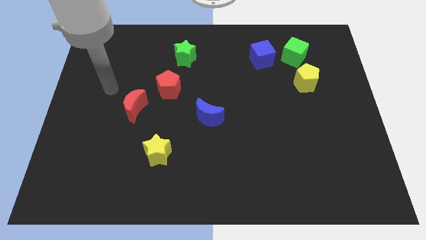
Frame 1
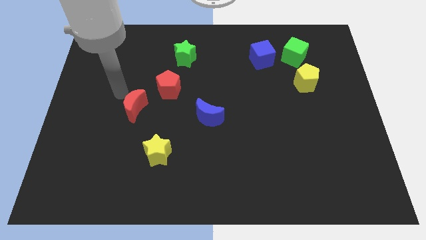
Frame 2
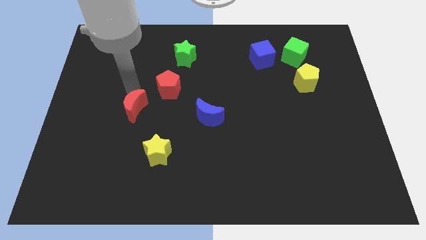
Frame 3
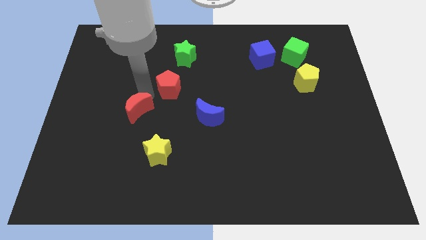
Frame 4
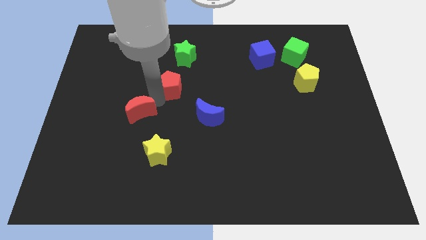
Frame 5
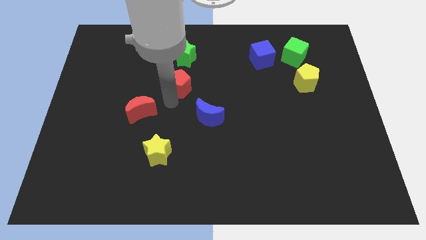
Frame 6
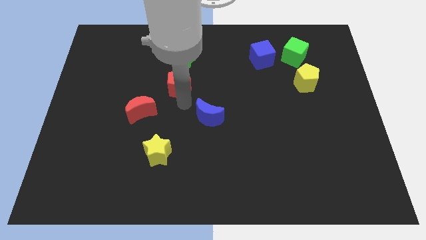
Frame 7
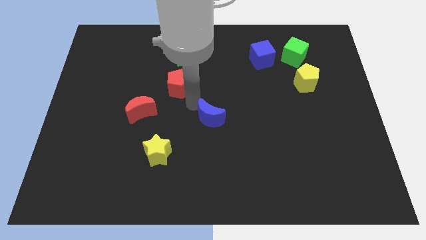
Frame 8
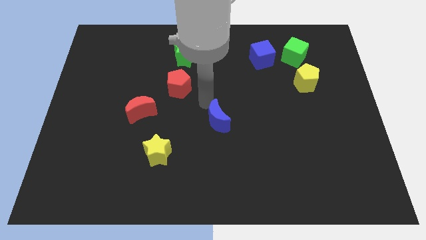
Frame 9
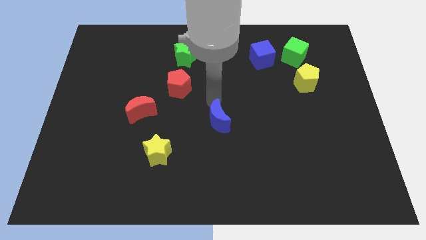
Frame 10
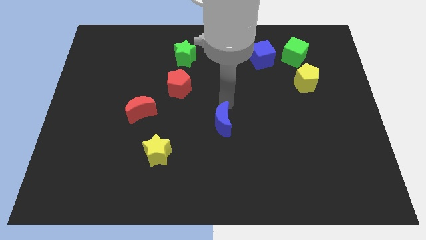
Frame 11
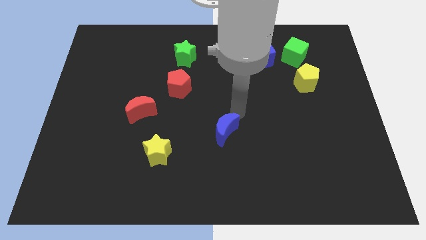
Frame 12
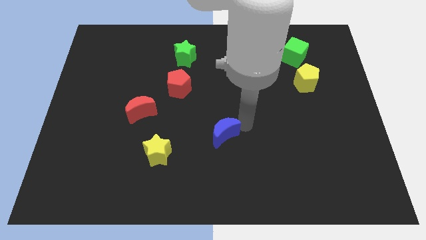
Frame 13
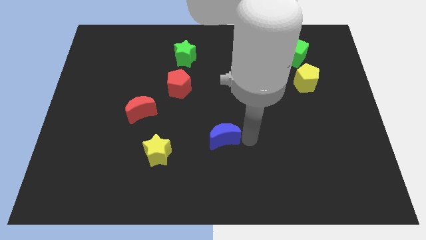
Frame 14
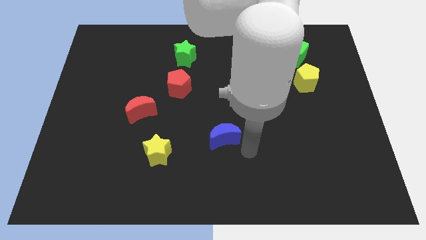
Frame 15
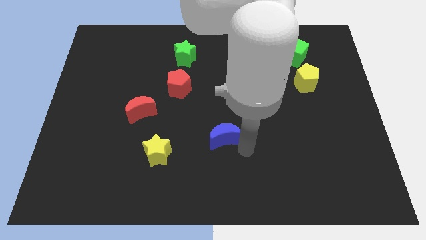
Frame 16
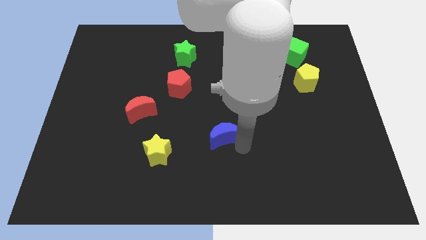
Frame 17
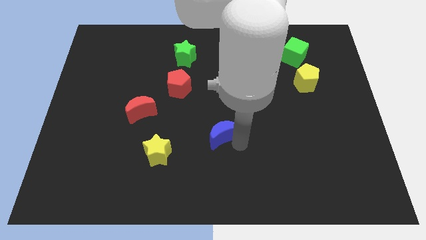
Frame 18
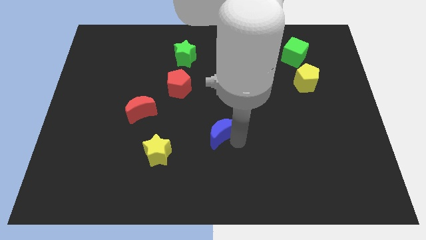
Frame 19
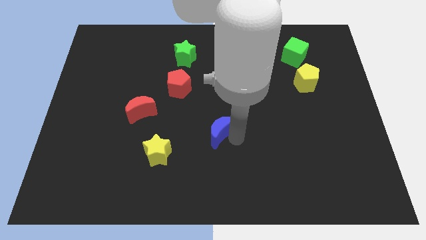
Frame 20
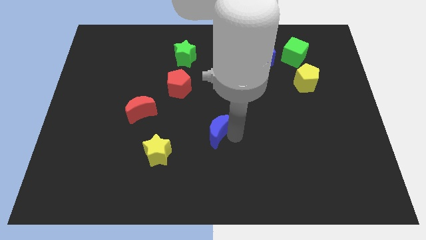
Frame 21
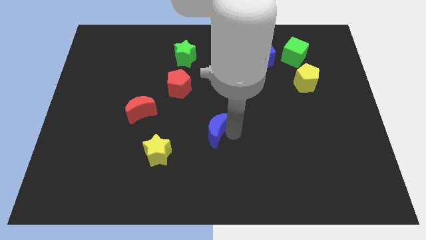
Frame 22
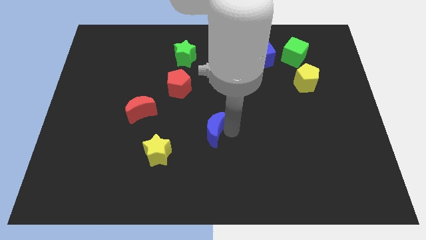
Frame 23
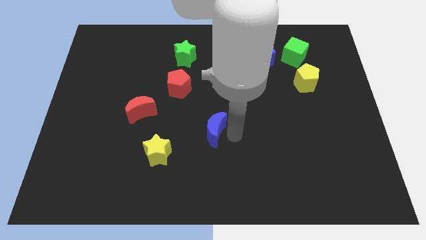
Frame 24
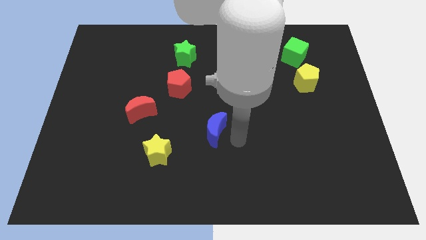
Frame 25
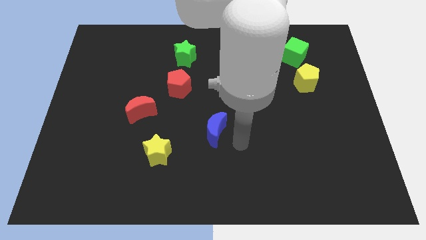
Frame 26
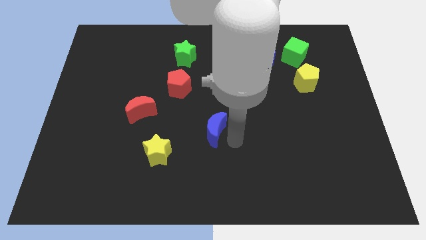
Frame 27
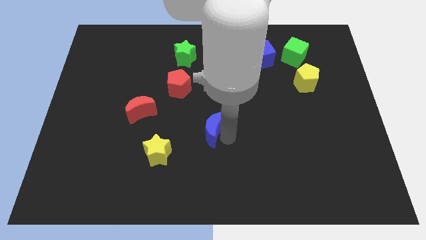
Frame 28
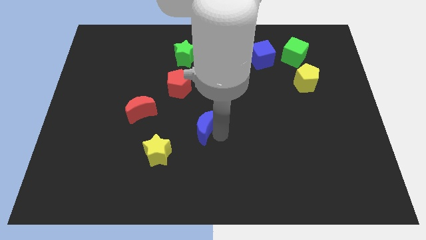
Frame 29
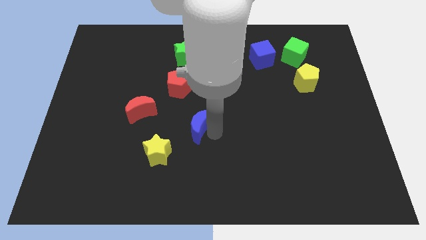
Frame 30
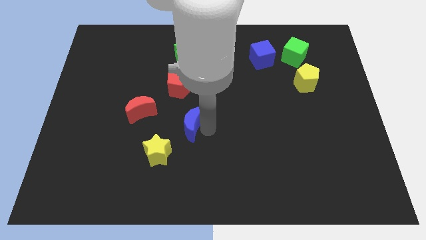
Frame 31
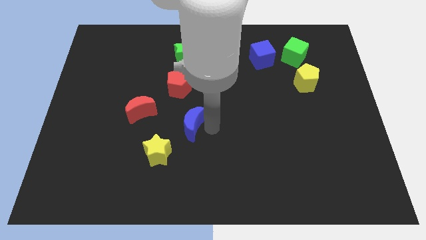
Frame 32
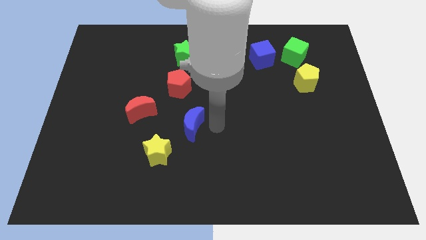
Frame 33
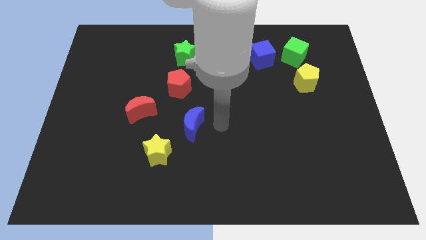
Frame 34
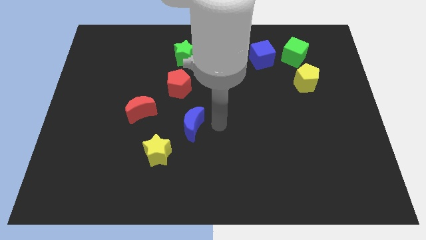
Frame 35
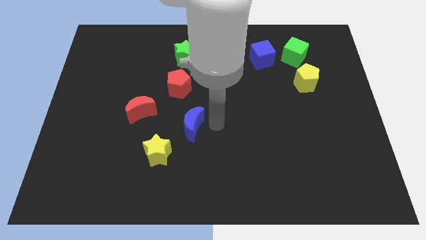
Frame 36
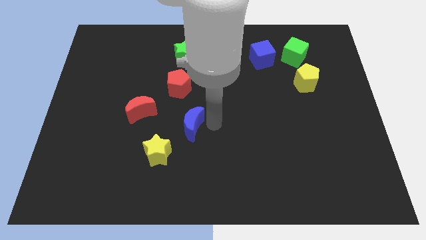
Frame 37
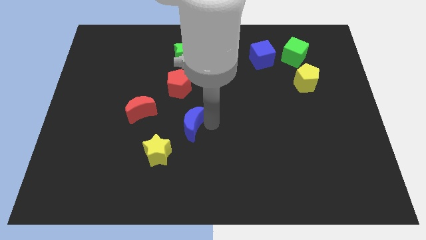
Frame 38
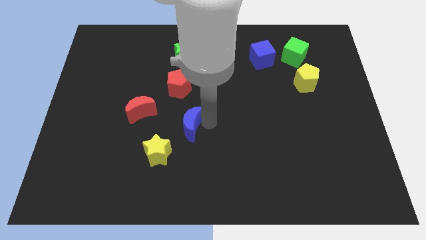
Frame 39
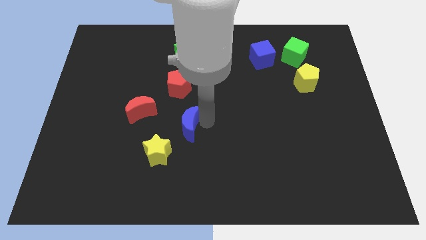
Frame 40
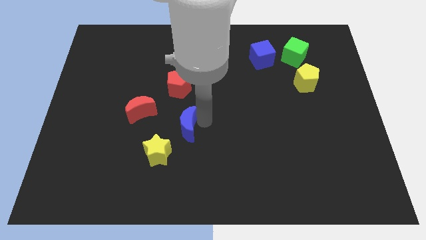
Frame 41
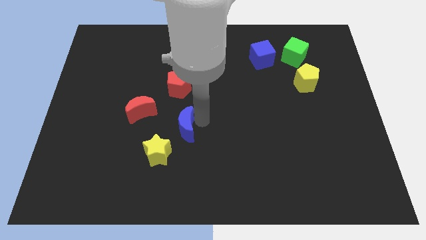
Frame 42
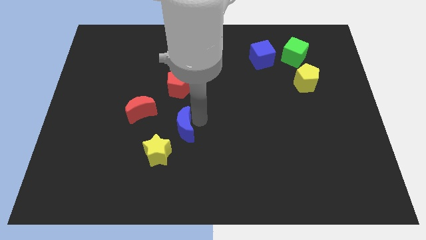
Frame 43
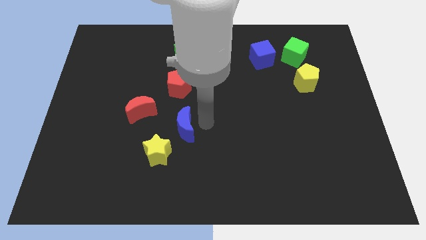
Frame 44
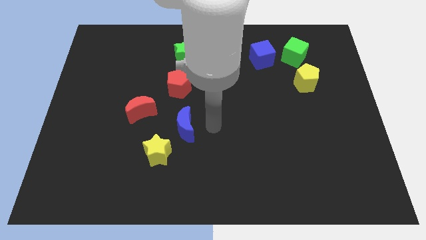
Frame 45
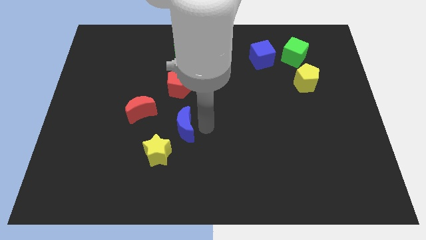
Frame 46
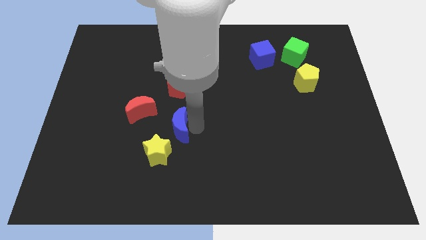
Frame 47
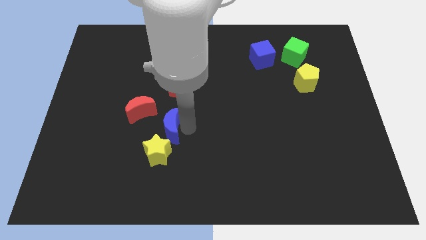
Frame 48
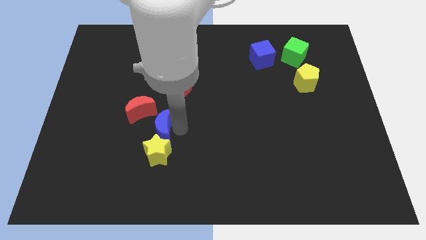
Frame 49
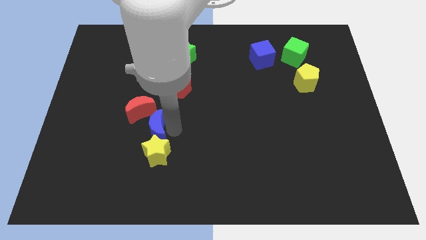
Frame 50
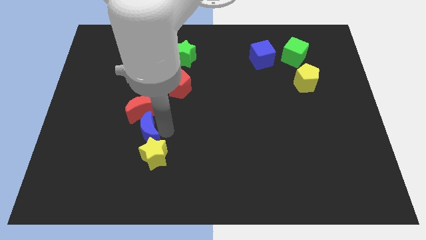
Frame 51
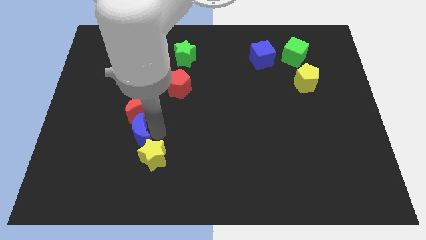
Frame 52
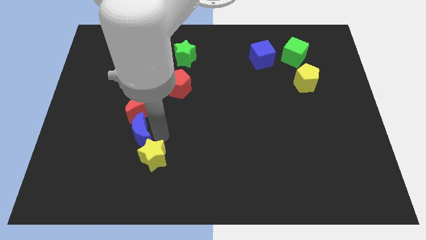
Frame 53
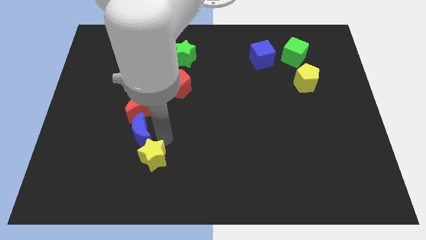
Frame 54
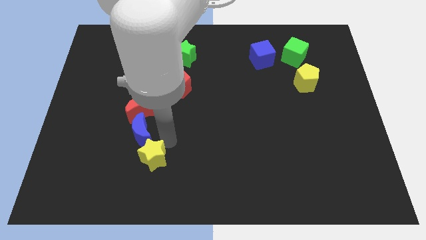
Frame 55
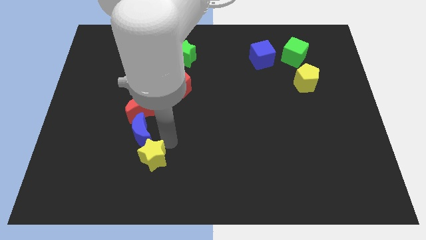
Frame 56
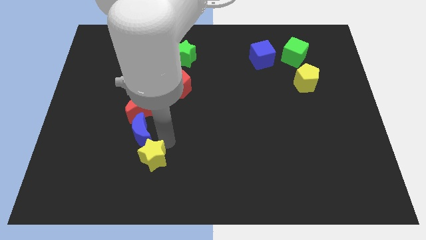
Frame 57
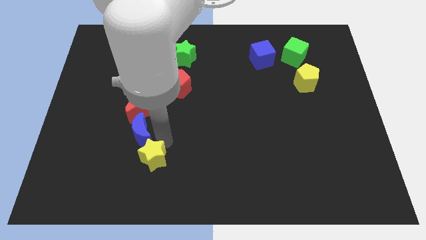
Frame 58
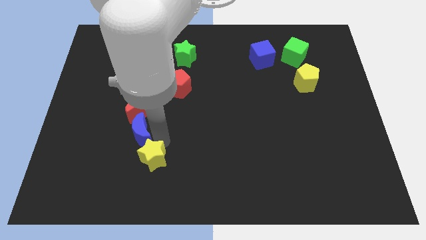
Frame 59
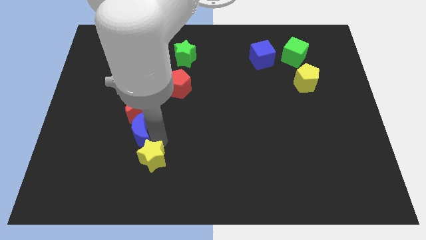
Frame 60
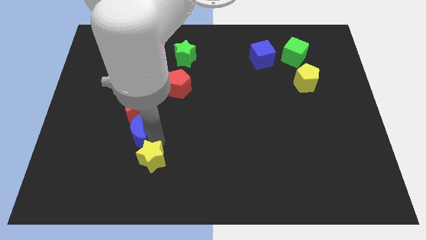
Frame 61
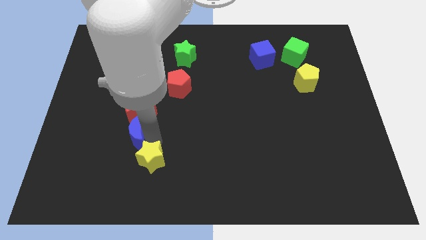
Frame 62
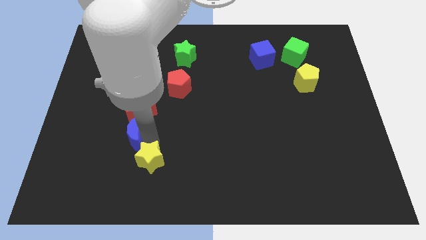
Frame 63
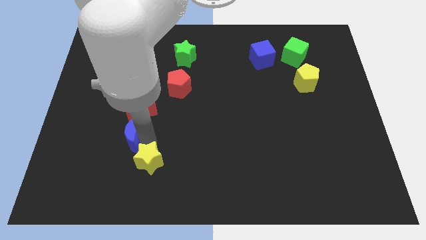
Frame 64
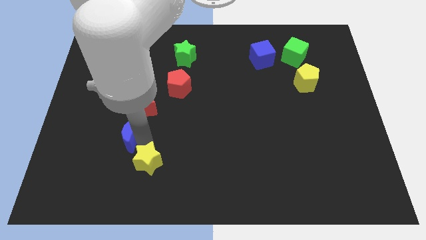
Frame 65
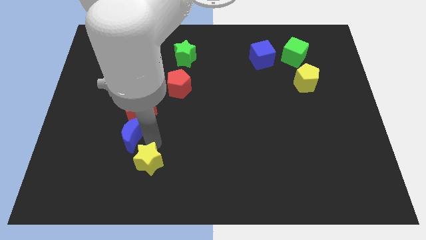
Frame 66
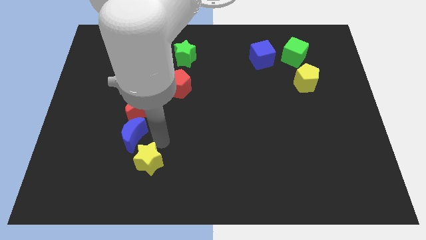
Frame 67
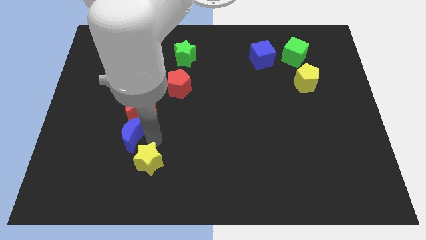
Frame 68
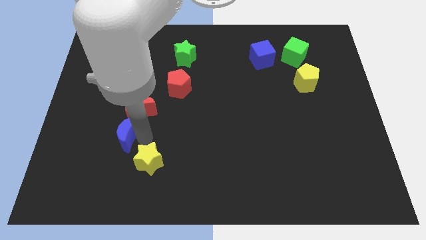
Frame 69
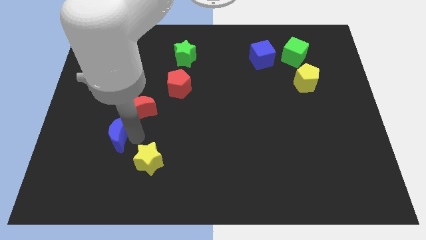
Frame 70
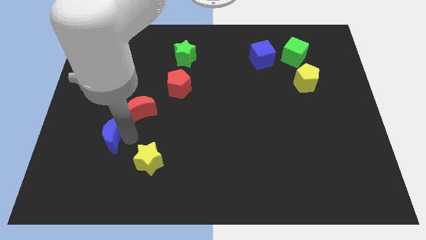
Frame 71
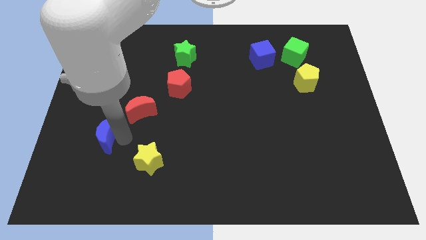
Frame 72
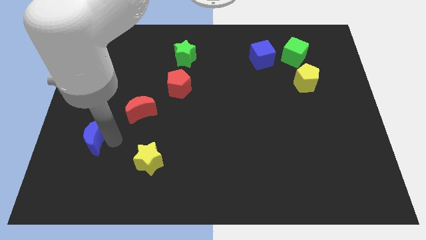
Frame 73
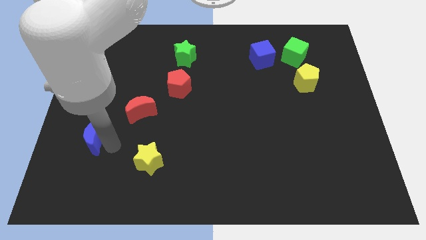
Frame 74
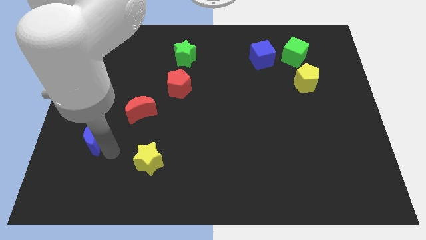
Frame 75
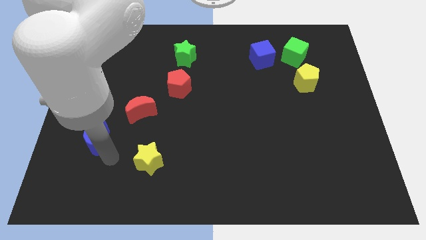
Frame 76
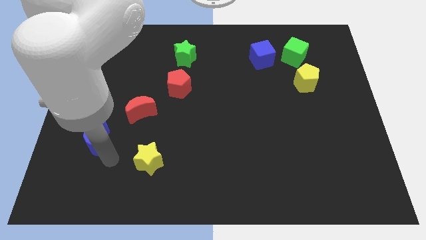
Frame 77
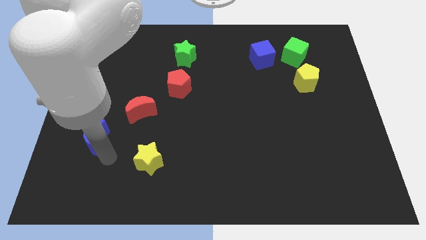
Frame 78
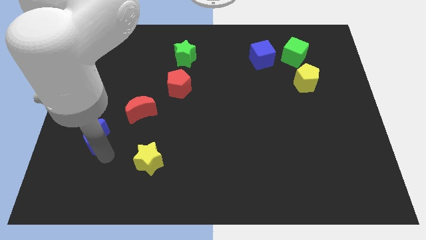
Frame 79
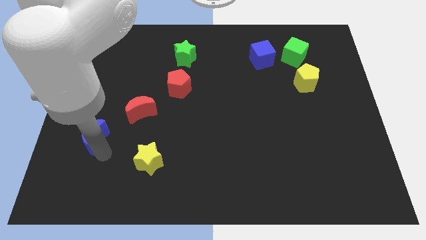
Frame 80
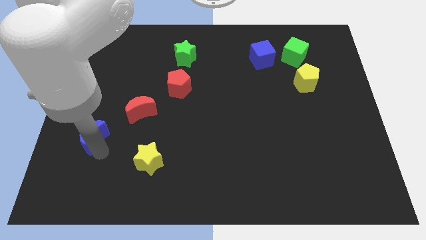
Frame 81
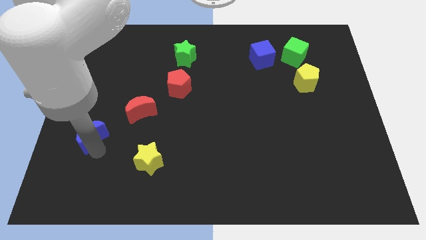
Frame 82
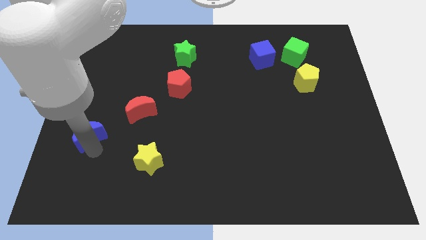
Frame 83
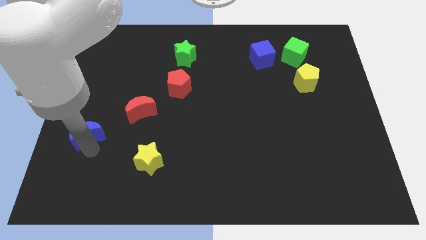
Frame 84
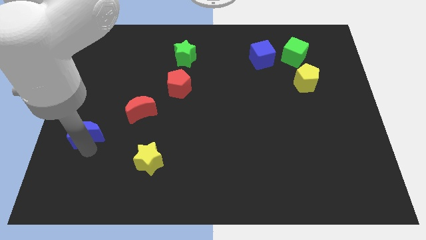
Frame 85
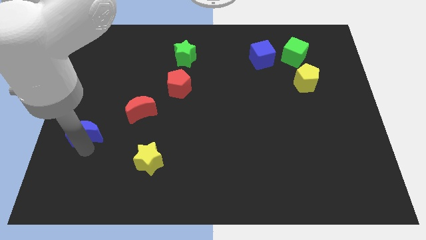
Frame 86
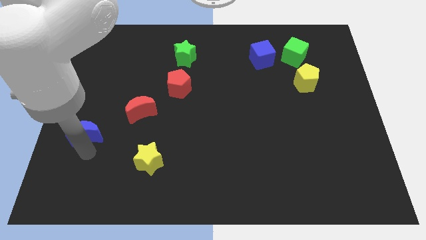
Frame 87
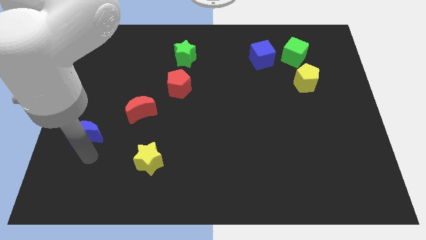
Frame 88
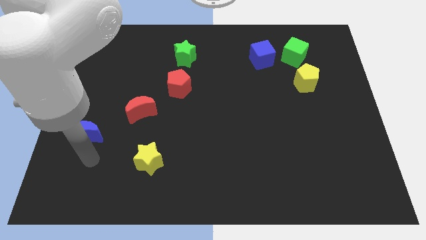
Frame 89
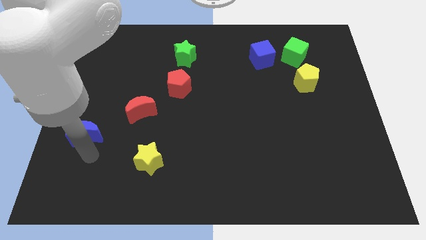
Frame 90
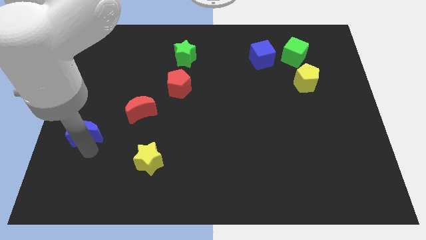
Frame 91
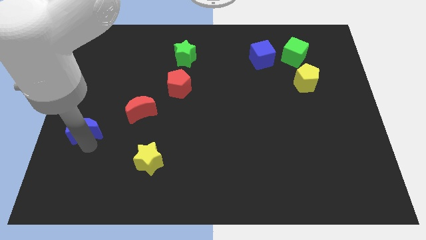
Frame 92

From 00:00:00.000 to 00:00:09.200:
push the blue moon to the left side
